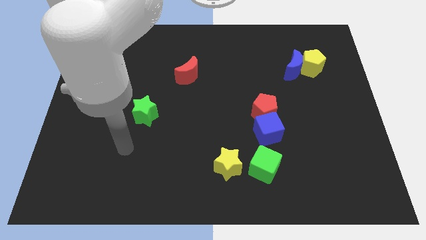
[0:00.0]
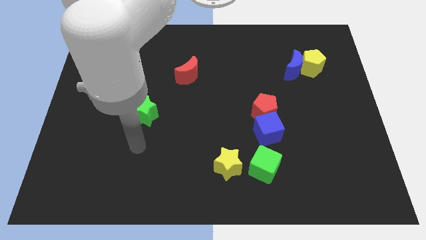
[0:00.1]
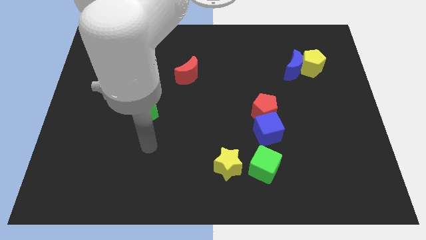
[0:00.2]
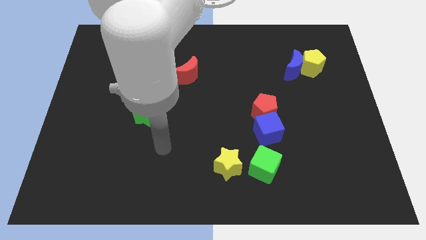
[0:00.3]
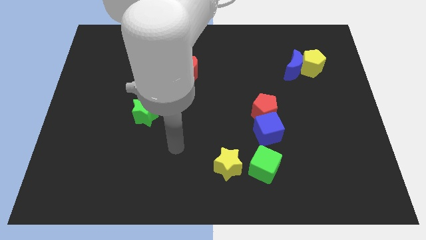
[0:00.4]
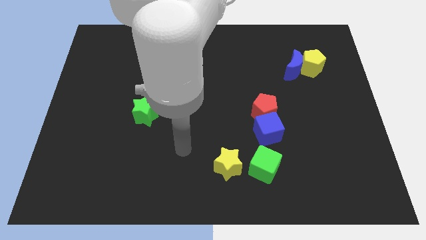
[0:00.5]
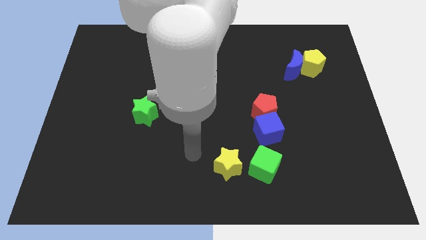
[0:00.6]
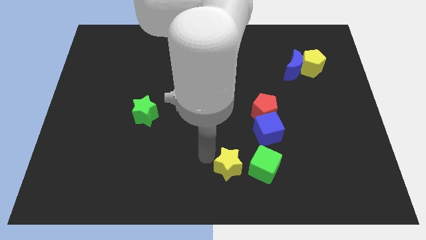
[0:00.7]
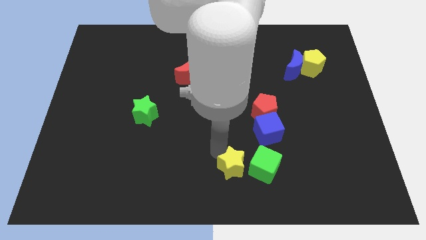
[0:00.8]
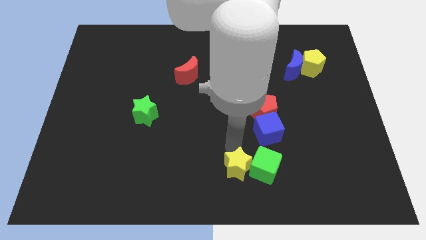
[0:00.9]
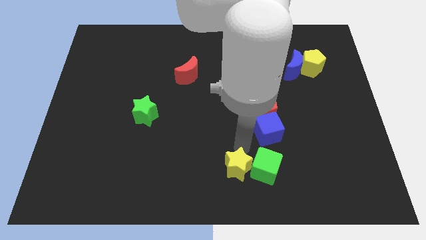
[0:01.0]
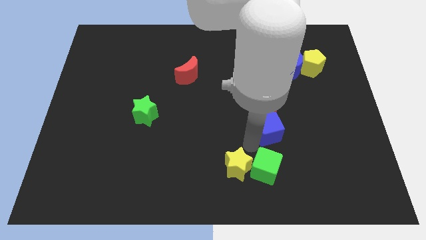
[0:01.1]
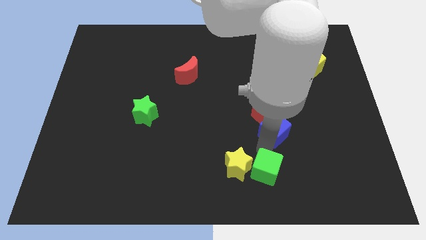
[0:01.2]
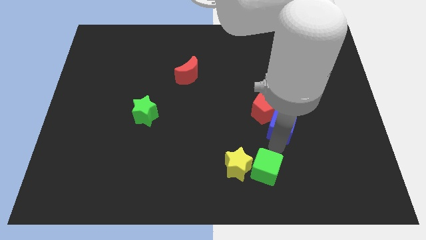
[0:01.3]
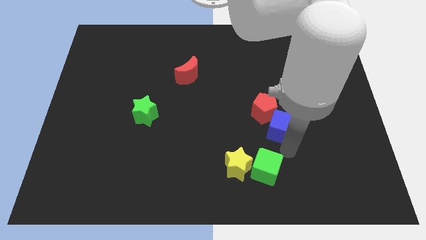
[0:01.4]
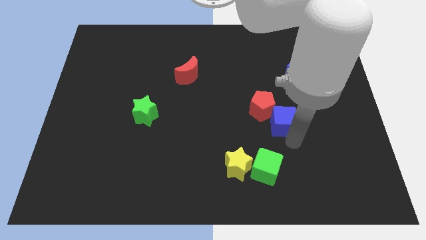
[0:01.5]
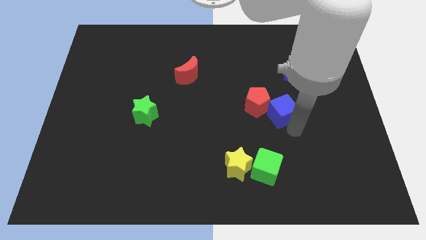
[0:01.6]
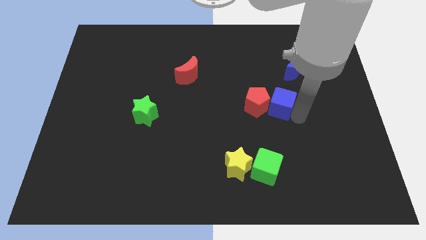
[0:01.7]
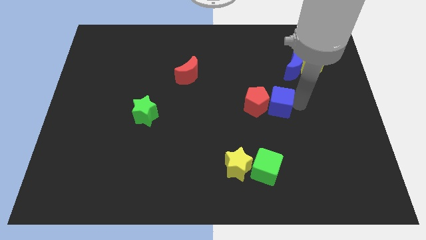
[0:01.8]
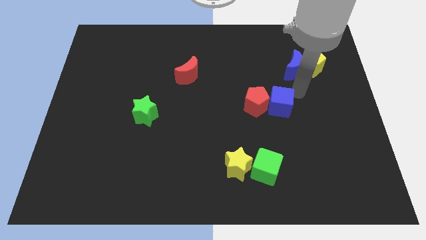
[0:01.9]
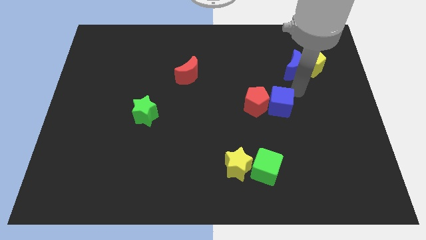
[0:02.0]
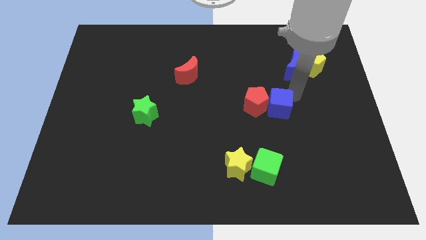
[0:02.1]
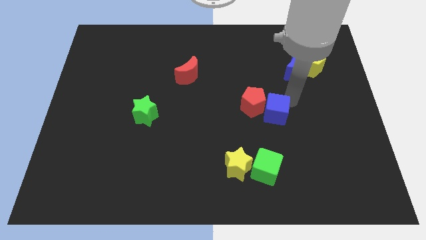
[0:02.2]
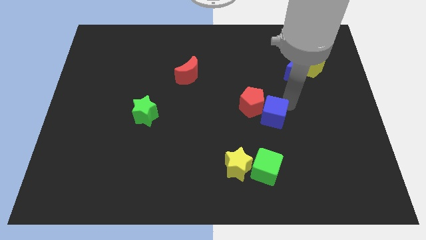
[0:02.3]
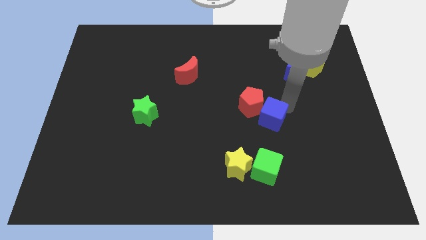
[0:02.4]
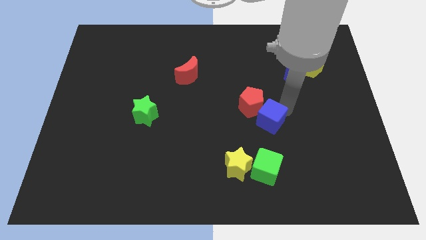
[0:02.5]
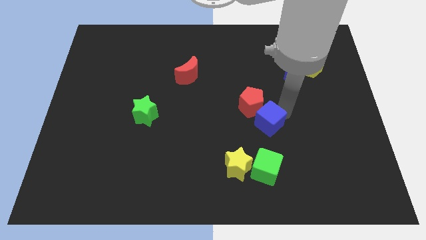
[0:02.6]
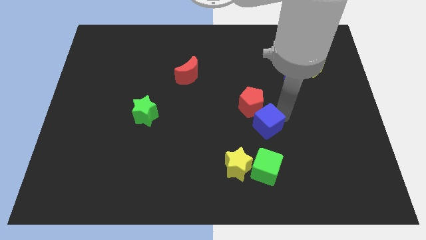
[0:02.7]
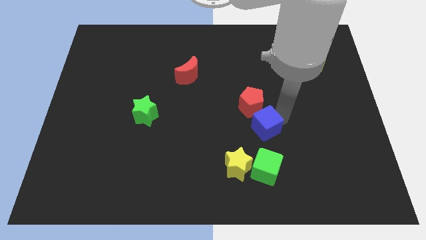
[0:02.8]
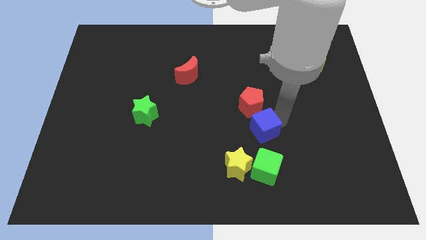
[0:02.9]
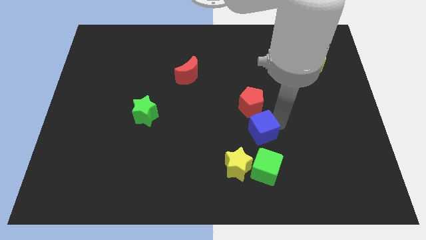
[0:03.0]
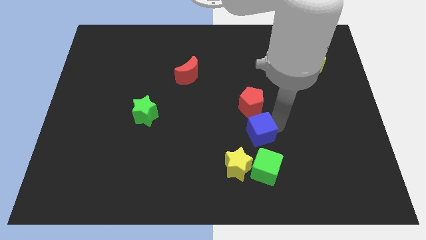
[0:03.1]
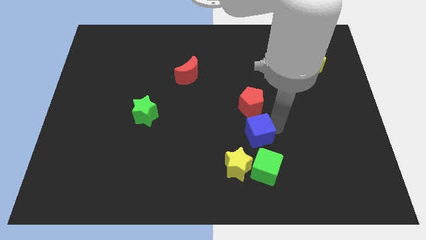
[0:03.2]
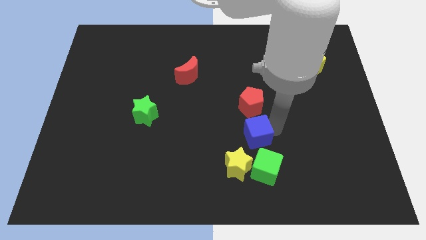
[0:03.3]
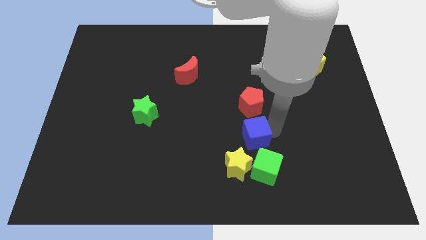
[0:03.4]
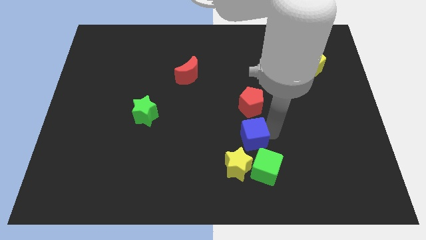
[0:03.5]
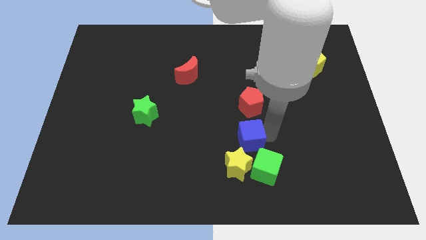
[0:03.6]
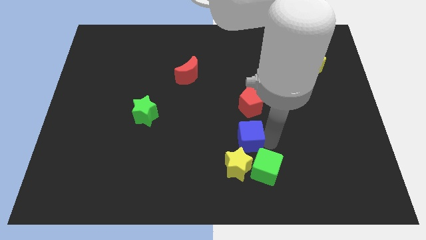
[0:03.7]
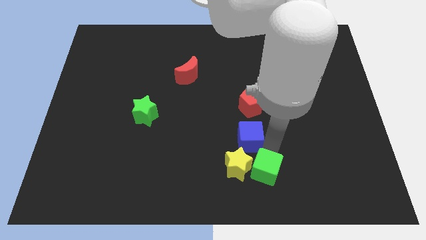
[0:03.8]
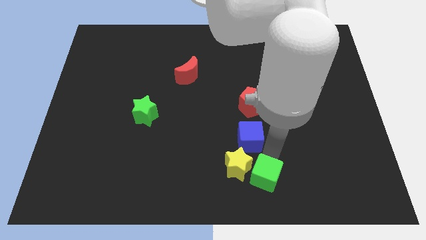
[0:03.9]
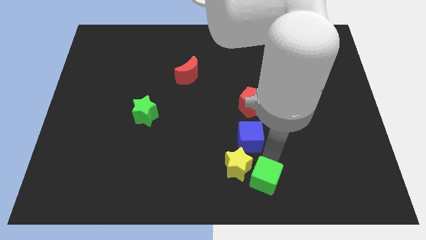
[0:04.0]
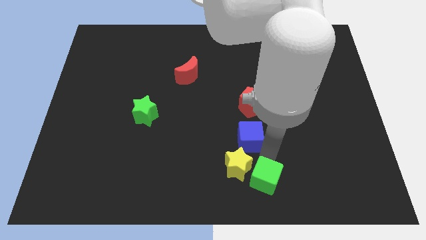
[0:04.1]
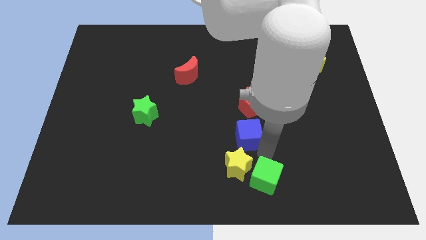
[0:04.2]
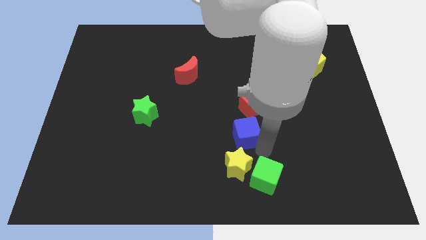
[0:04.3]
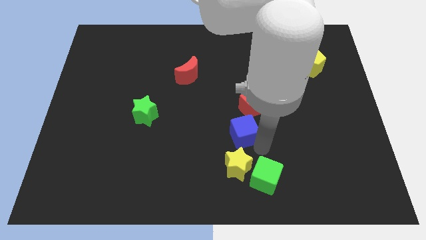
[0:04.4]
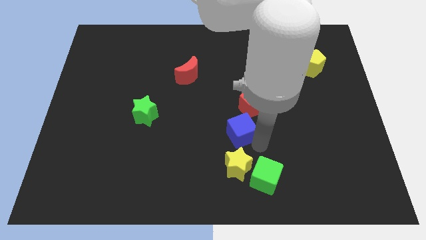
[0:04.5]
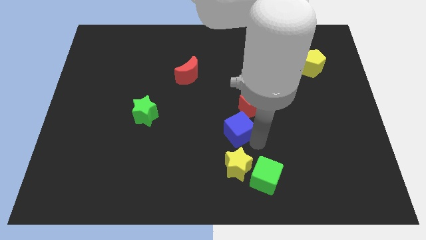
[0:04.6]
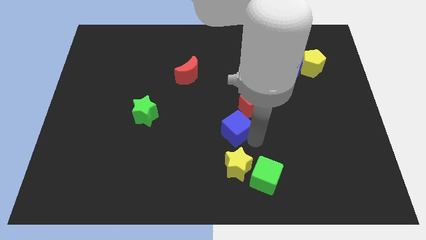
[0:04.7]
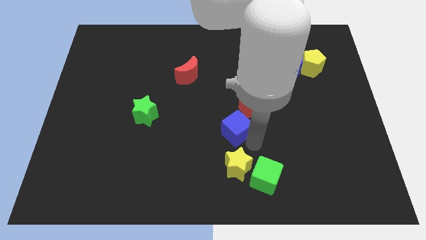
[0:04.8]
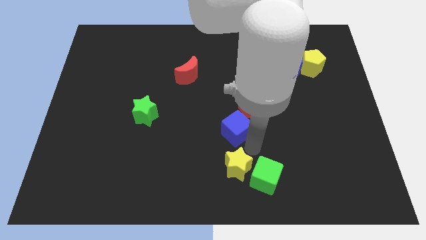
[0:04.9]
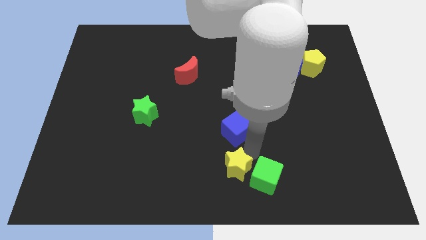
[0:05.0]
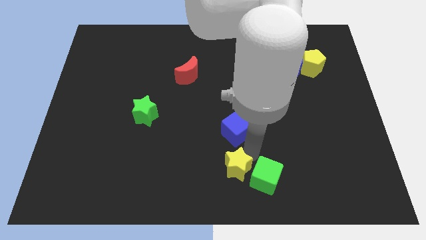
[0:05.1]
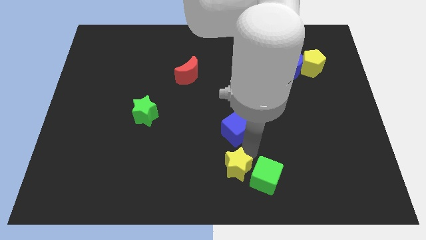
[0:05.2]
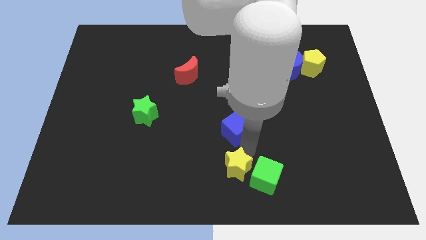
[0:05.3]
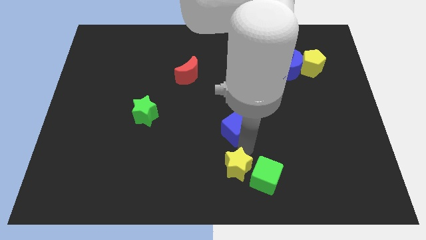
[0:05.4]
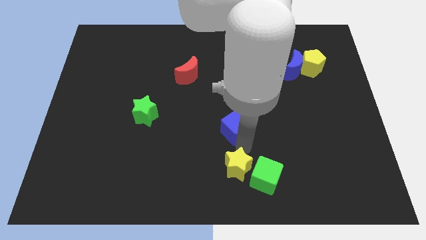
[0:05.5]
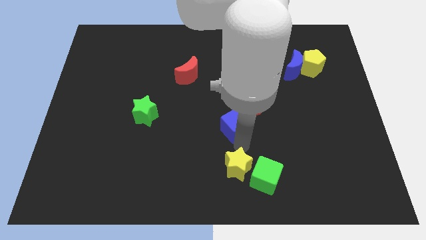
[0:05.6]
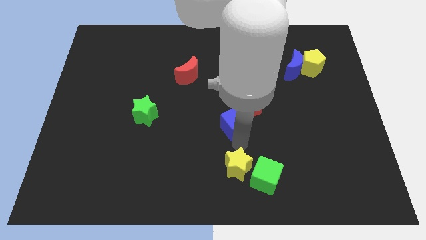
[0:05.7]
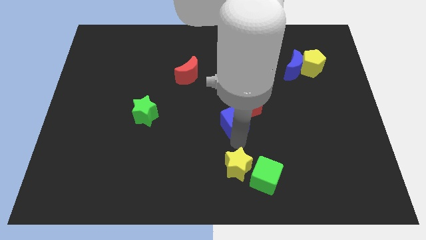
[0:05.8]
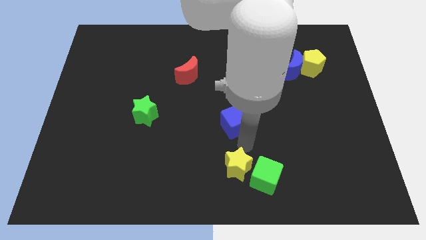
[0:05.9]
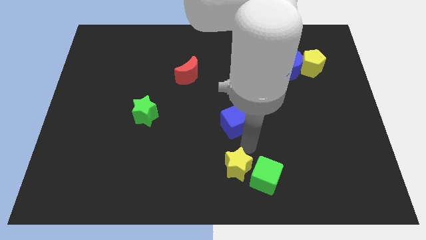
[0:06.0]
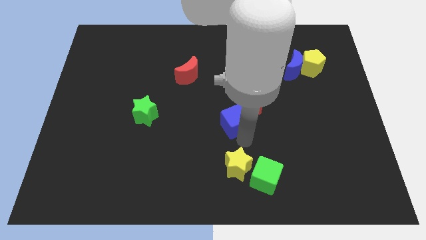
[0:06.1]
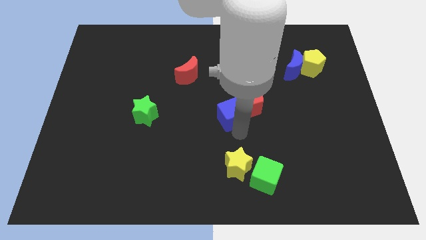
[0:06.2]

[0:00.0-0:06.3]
slightly slide the blue cube diagonally up and left

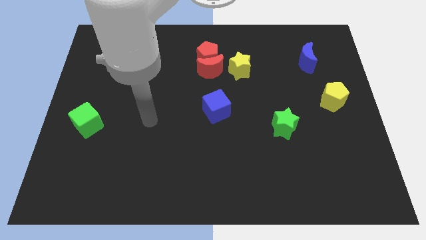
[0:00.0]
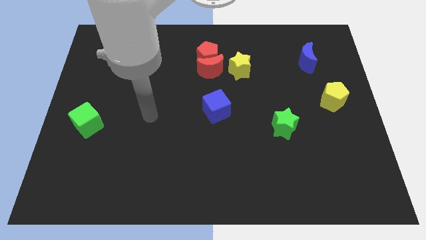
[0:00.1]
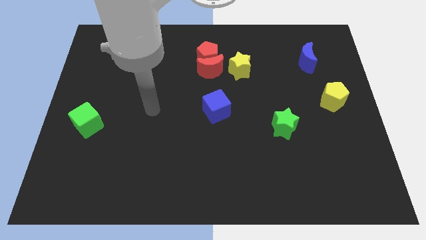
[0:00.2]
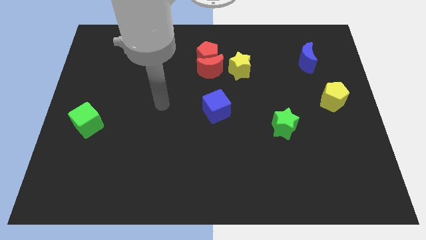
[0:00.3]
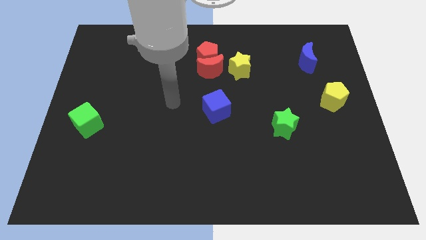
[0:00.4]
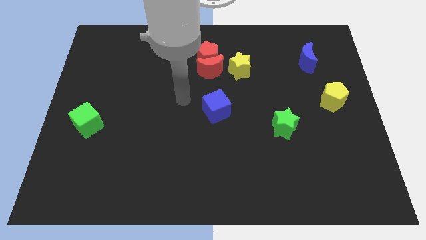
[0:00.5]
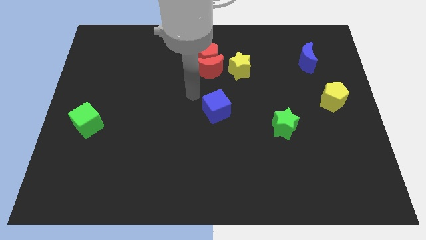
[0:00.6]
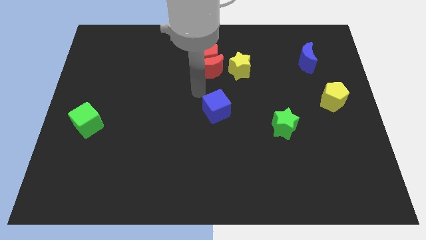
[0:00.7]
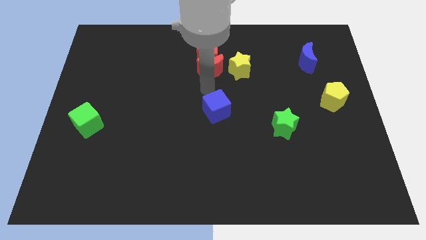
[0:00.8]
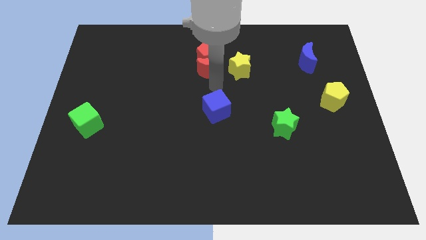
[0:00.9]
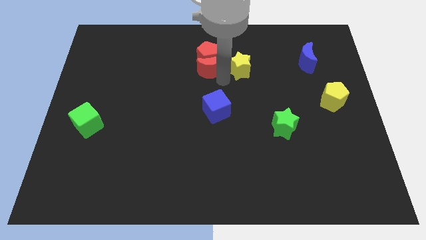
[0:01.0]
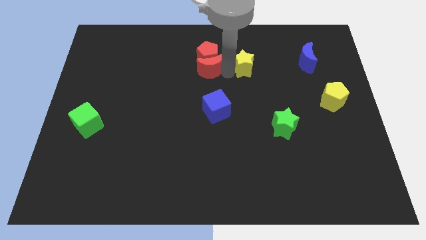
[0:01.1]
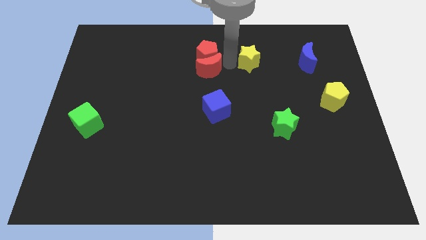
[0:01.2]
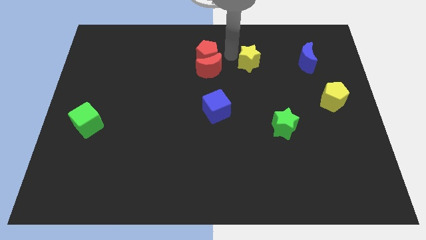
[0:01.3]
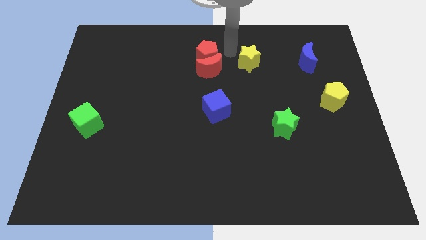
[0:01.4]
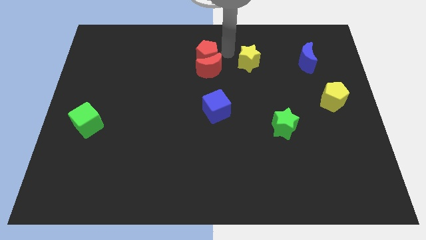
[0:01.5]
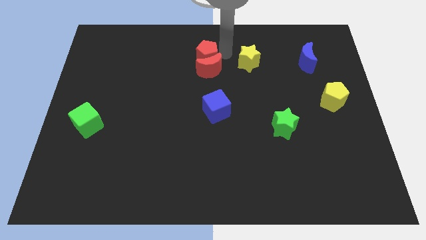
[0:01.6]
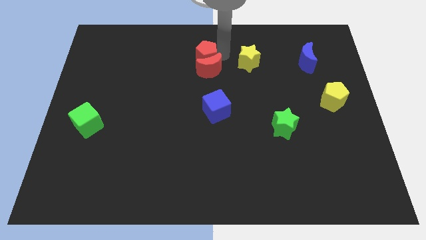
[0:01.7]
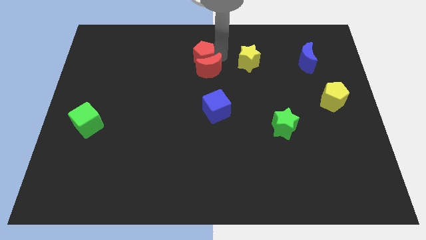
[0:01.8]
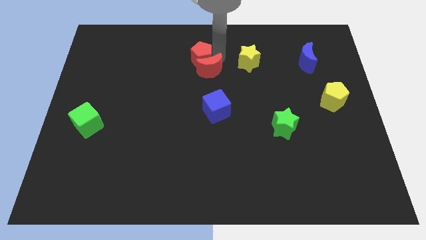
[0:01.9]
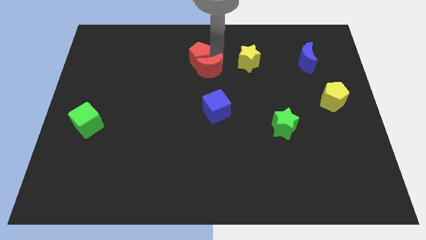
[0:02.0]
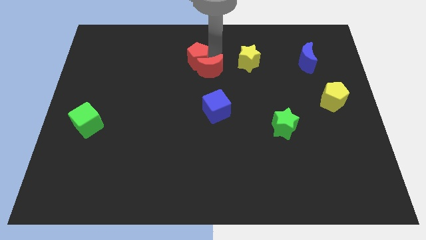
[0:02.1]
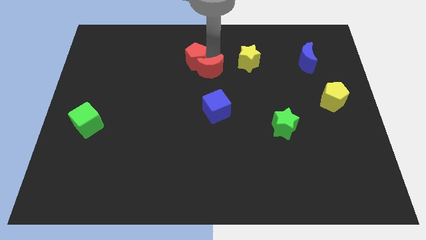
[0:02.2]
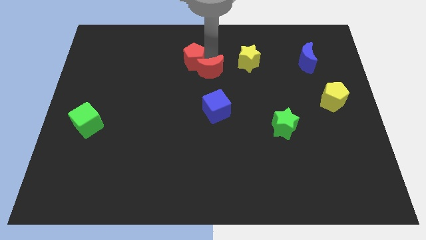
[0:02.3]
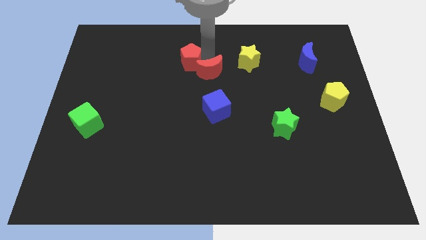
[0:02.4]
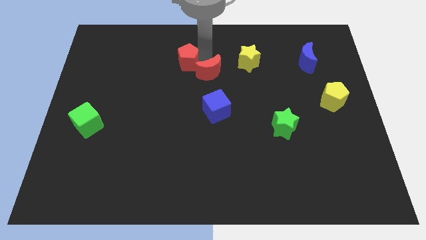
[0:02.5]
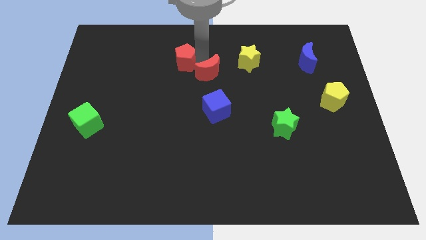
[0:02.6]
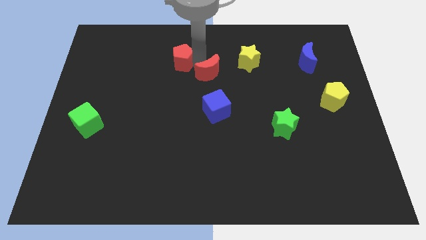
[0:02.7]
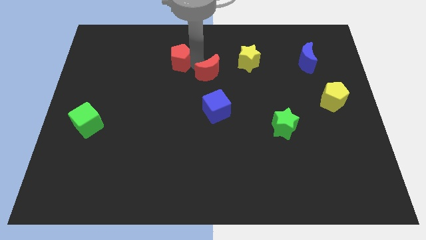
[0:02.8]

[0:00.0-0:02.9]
slightly push the red pentagon left
